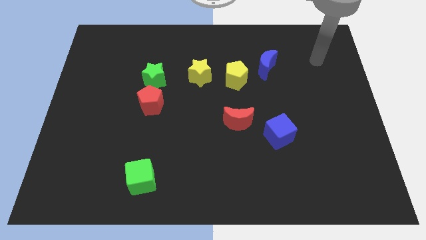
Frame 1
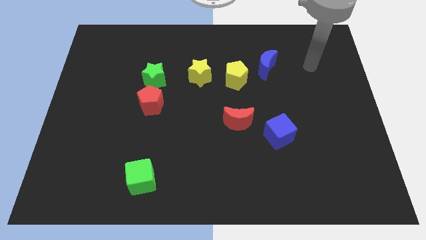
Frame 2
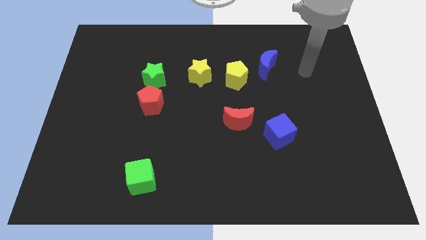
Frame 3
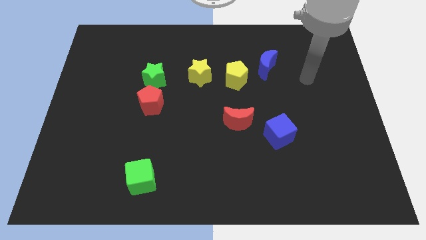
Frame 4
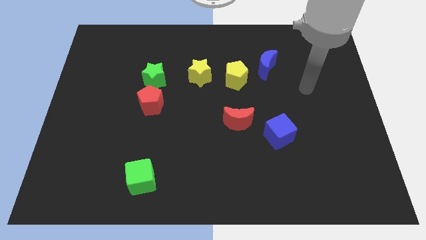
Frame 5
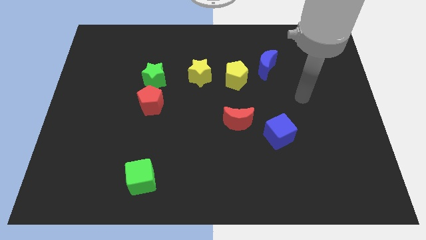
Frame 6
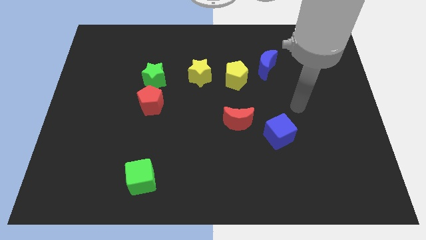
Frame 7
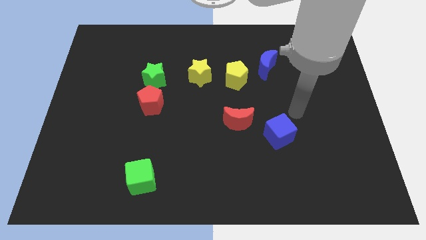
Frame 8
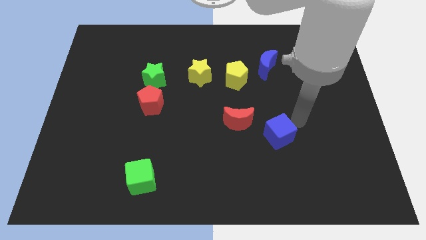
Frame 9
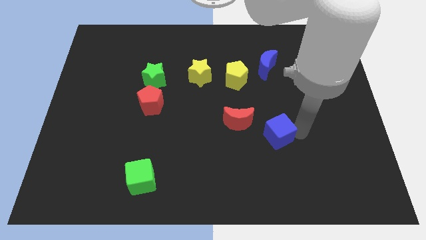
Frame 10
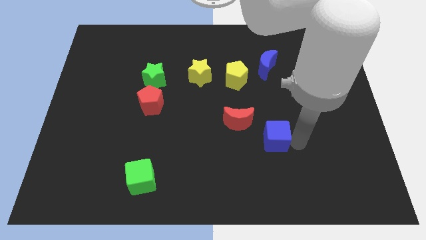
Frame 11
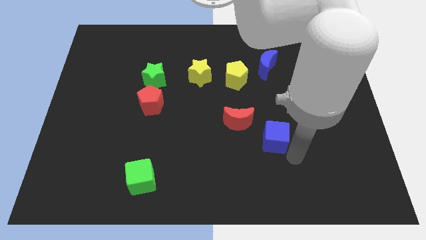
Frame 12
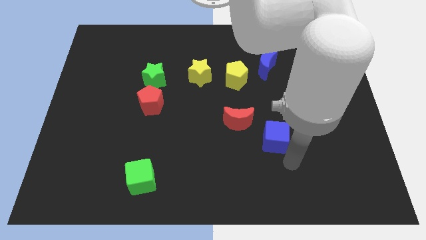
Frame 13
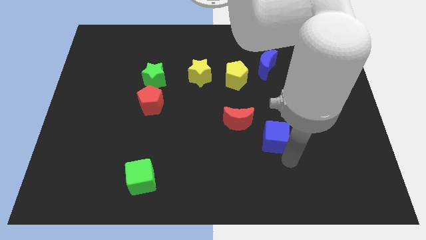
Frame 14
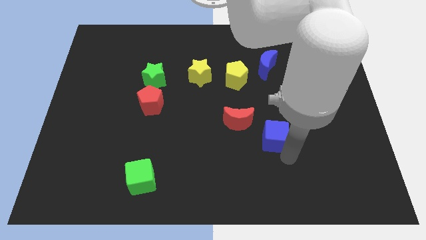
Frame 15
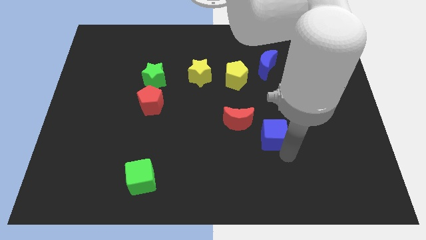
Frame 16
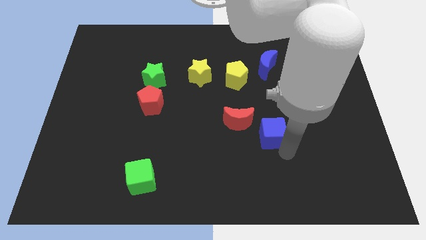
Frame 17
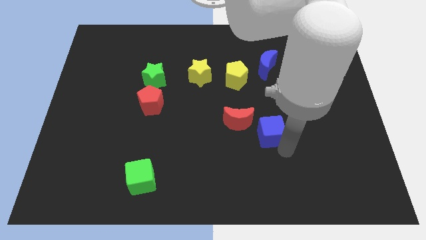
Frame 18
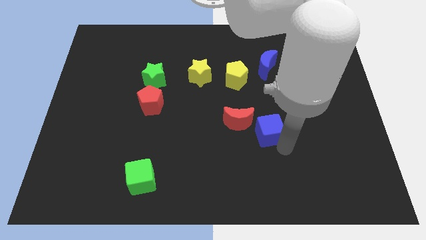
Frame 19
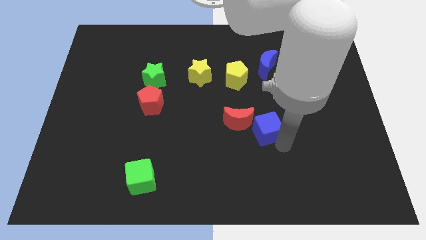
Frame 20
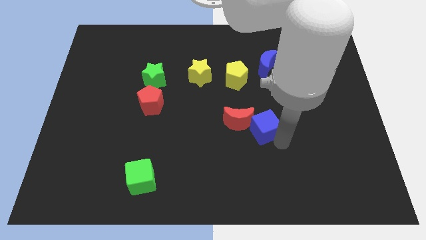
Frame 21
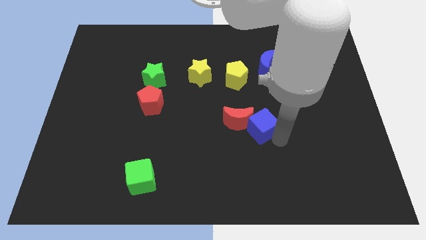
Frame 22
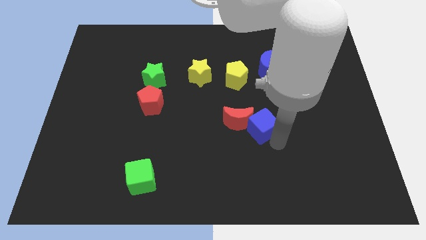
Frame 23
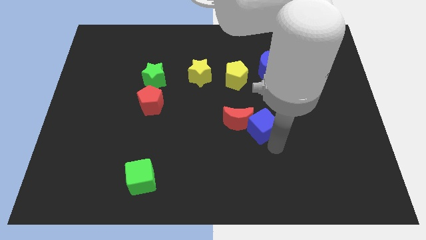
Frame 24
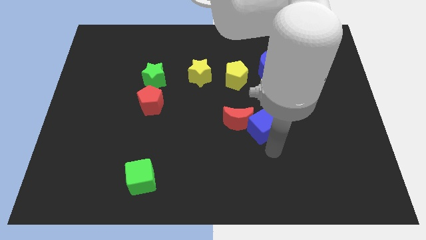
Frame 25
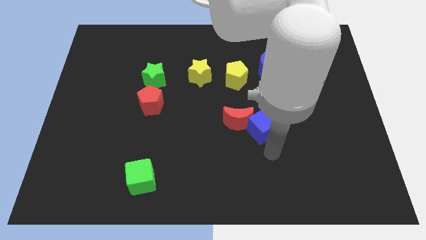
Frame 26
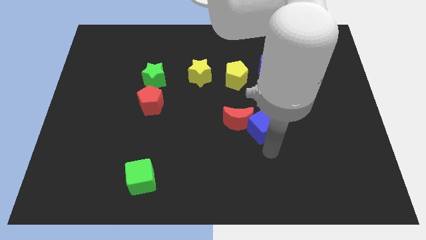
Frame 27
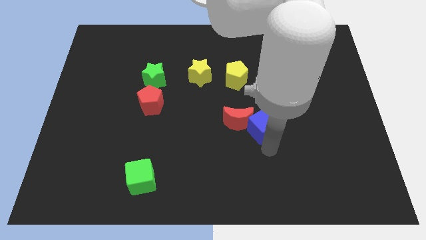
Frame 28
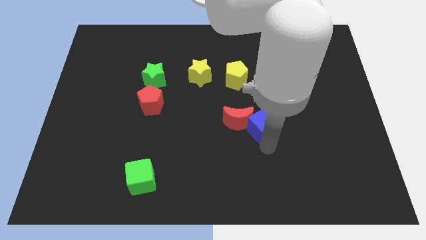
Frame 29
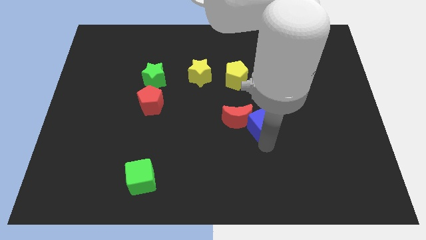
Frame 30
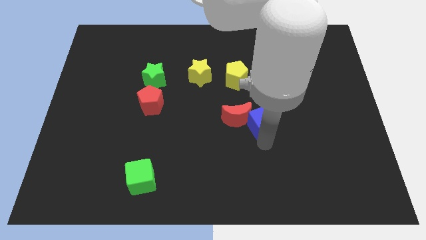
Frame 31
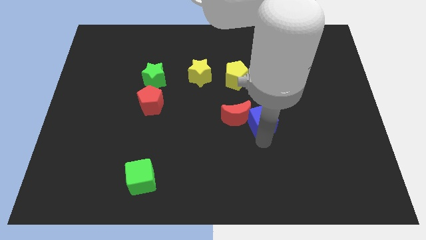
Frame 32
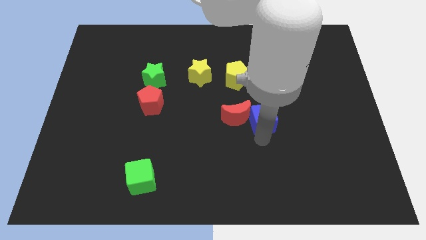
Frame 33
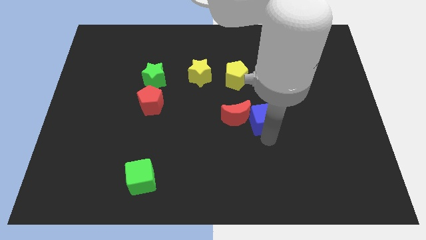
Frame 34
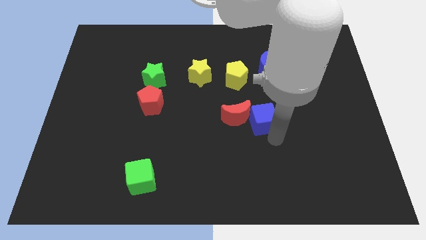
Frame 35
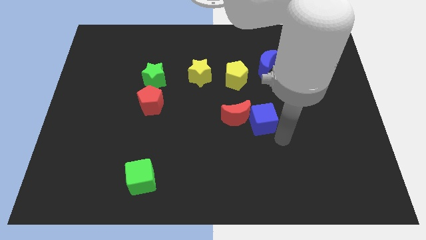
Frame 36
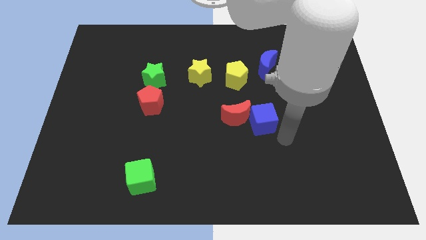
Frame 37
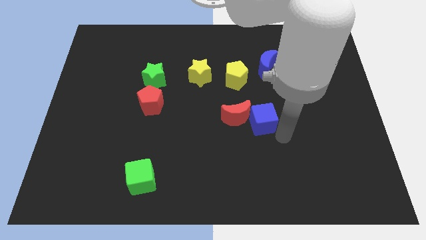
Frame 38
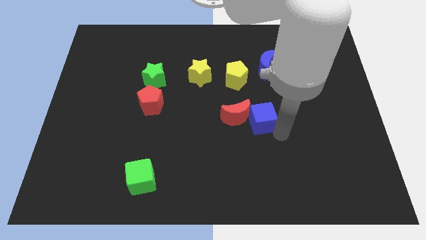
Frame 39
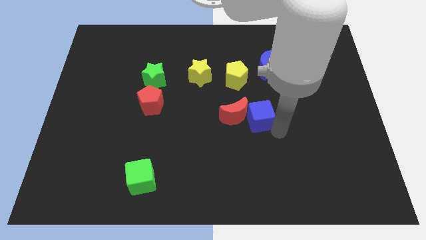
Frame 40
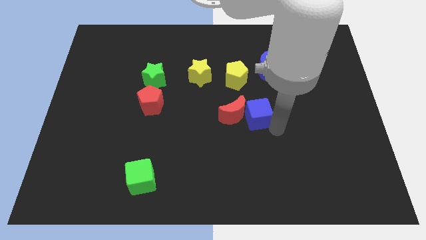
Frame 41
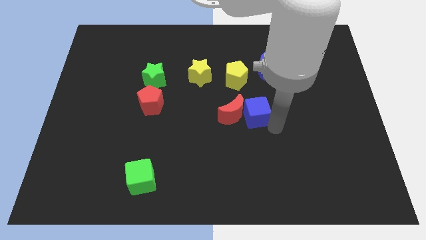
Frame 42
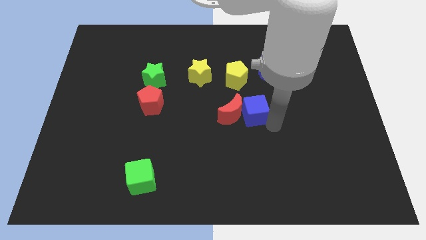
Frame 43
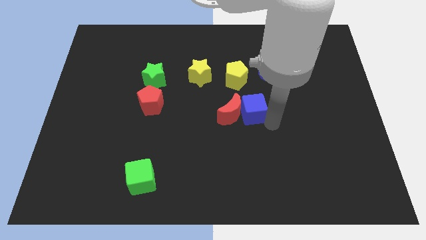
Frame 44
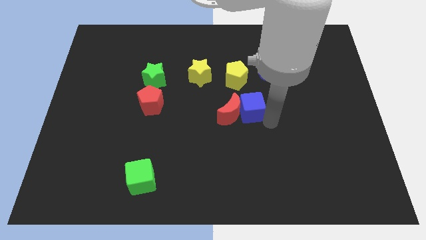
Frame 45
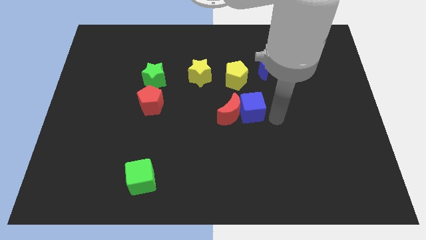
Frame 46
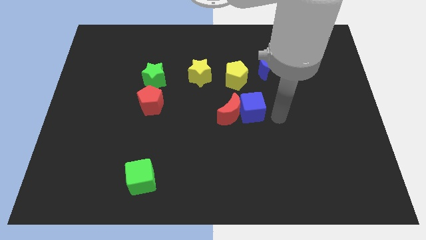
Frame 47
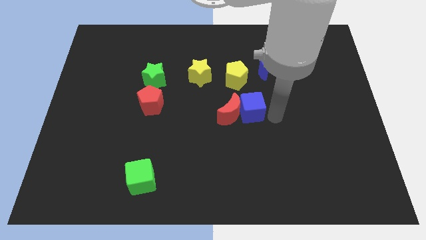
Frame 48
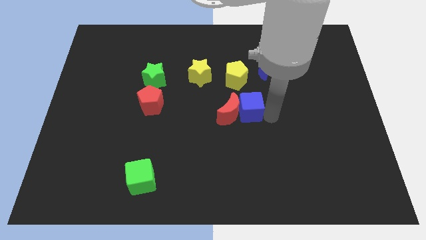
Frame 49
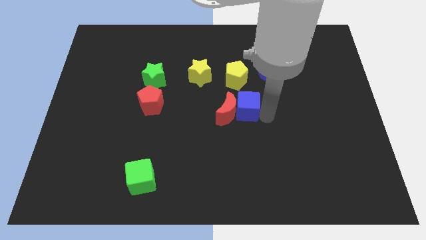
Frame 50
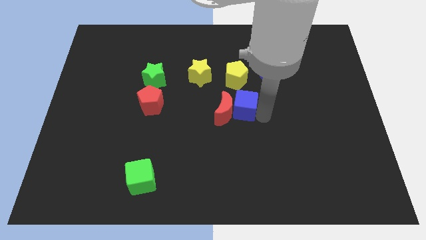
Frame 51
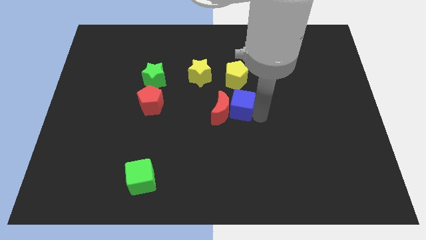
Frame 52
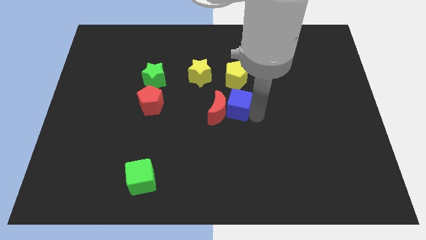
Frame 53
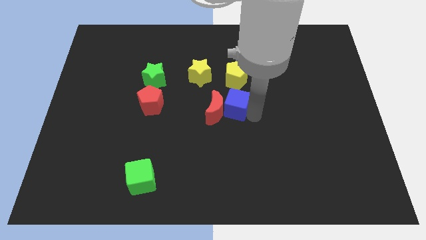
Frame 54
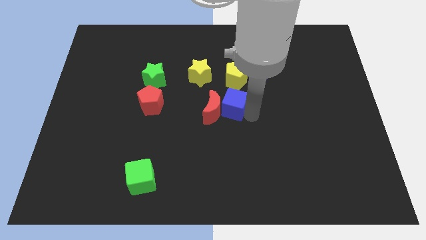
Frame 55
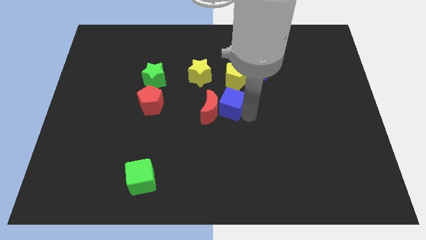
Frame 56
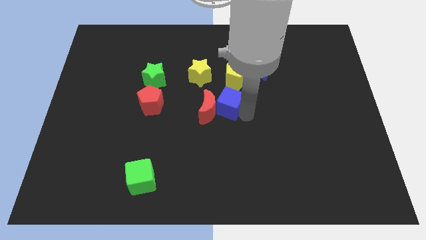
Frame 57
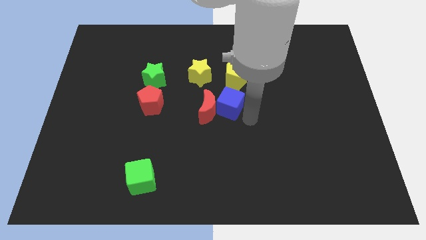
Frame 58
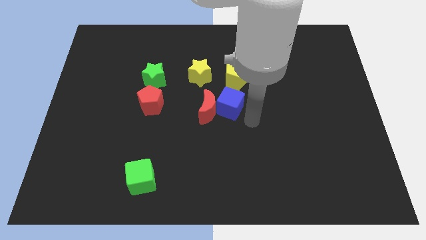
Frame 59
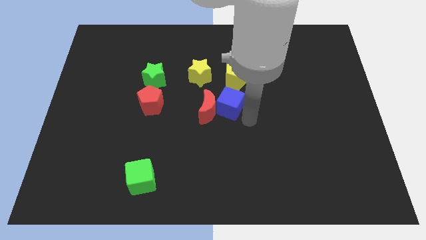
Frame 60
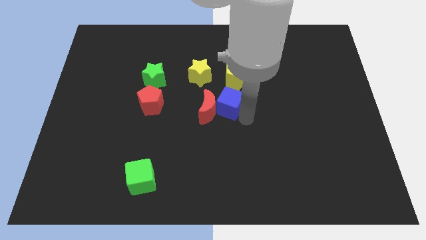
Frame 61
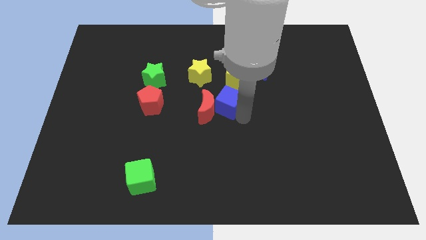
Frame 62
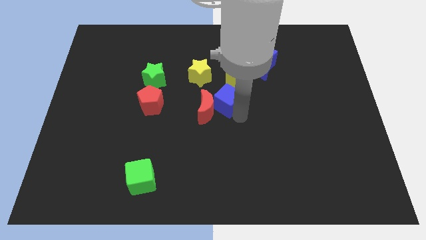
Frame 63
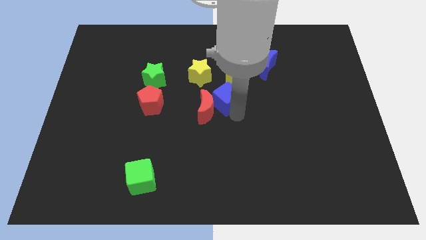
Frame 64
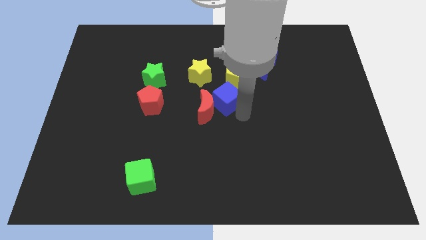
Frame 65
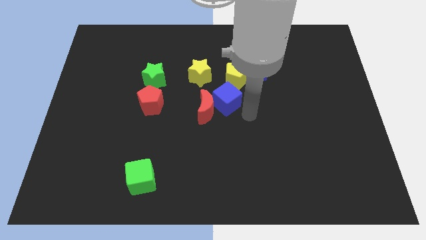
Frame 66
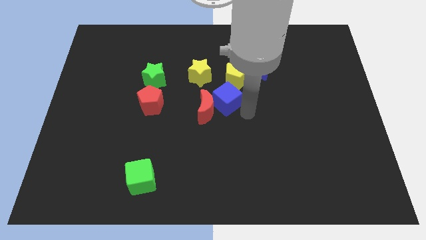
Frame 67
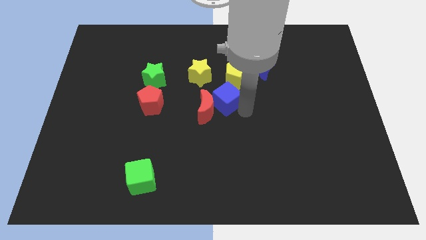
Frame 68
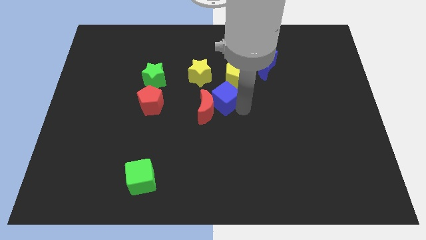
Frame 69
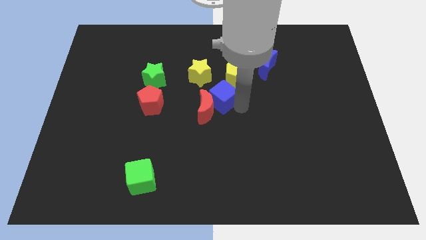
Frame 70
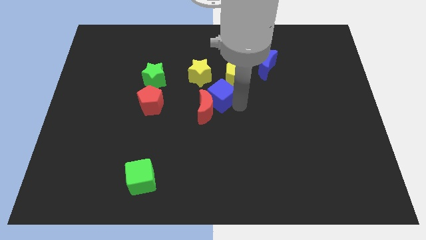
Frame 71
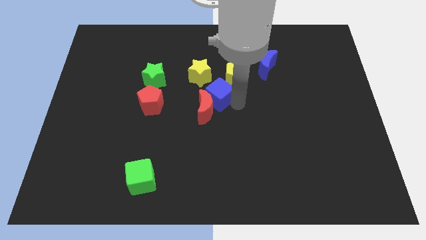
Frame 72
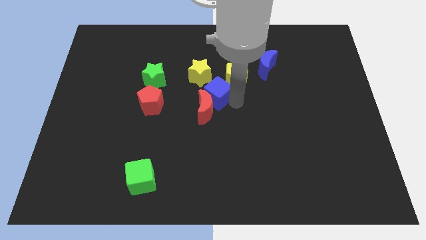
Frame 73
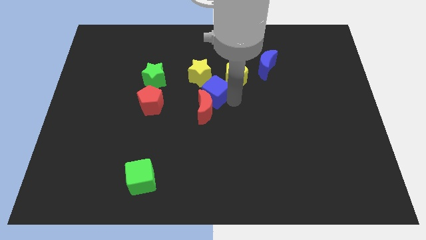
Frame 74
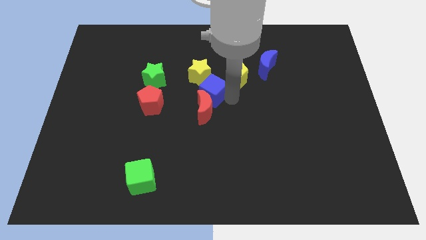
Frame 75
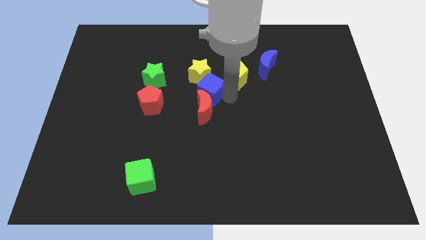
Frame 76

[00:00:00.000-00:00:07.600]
put the blue cube to the right of the green star
